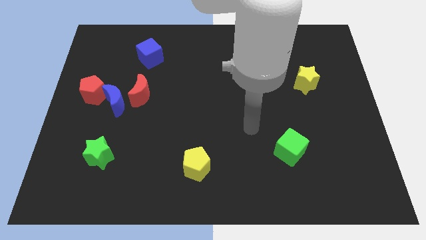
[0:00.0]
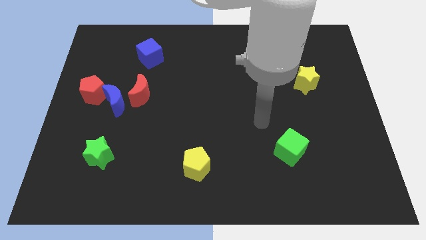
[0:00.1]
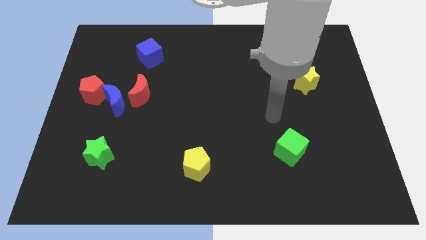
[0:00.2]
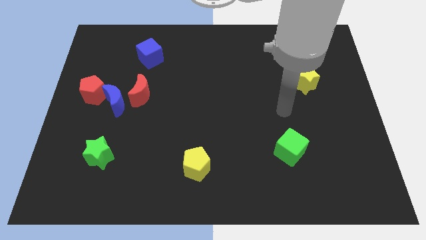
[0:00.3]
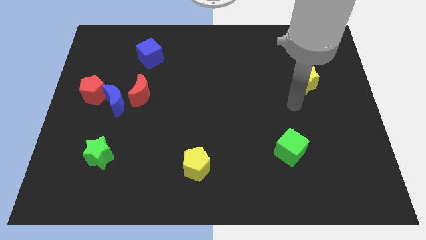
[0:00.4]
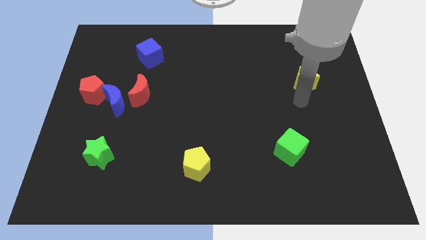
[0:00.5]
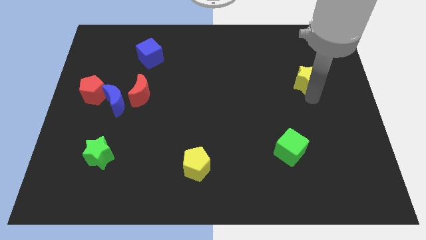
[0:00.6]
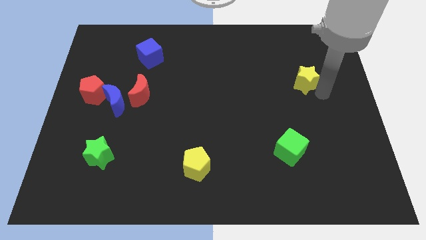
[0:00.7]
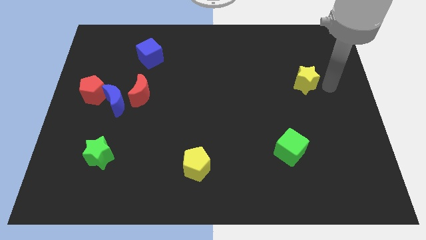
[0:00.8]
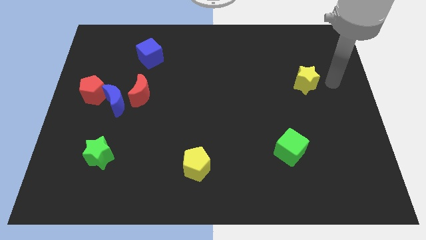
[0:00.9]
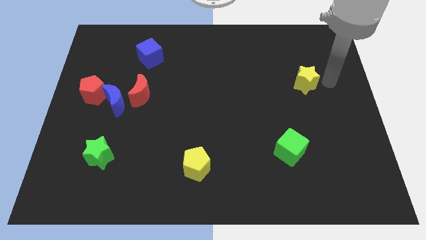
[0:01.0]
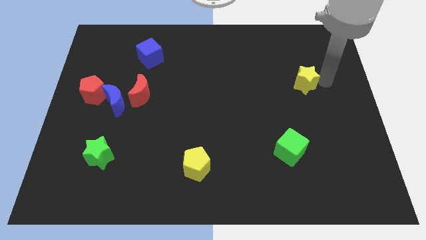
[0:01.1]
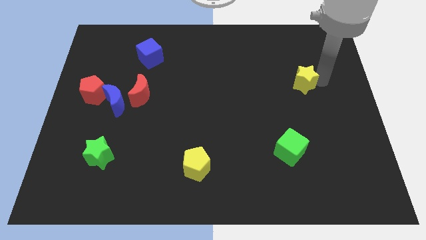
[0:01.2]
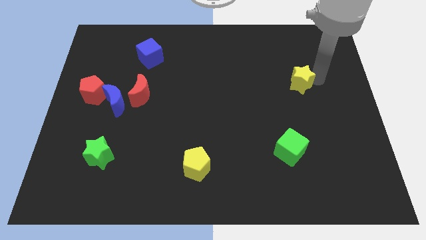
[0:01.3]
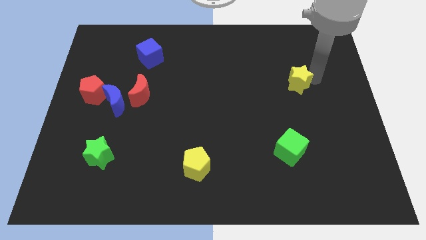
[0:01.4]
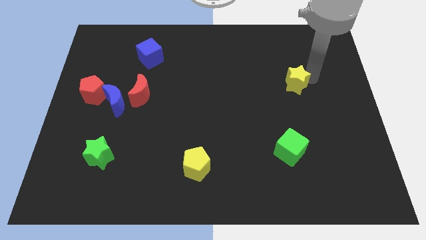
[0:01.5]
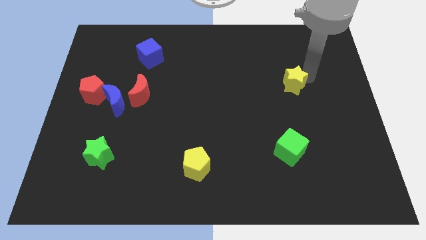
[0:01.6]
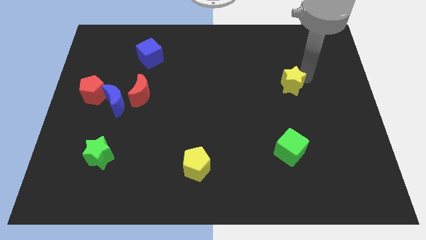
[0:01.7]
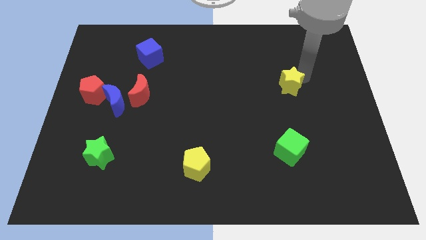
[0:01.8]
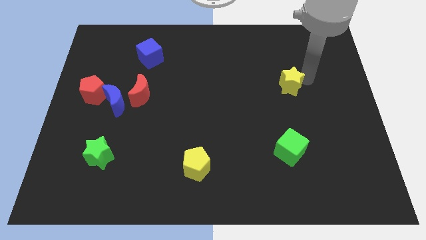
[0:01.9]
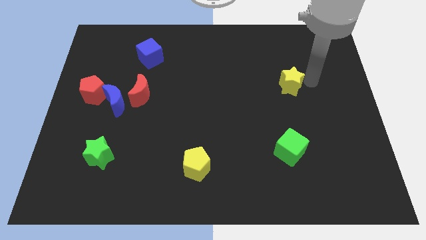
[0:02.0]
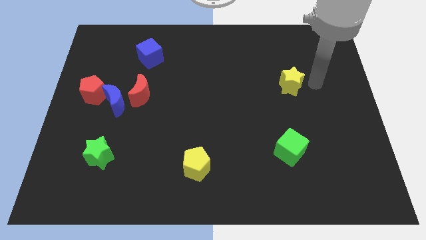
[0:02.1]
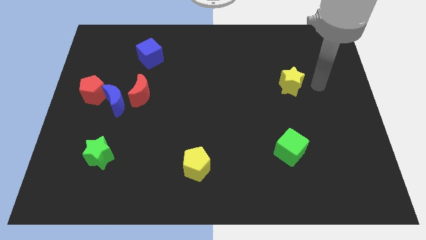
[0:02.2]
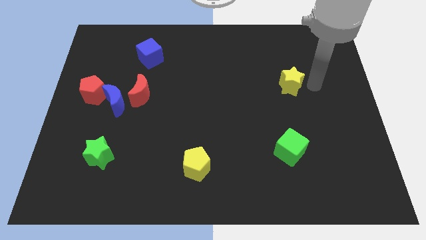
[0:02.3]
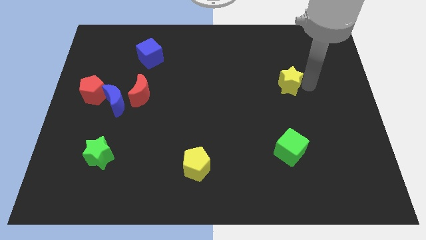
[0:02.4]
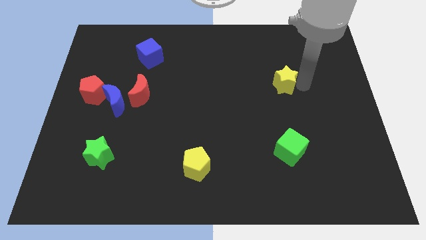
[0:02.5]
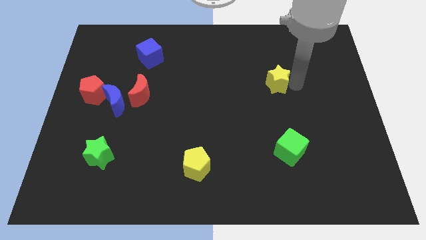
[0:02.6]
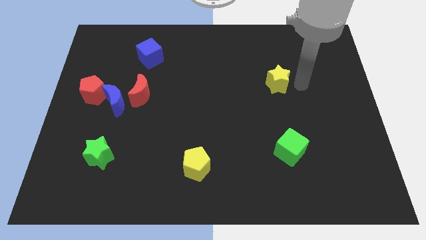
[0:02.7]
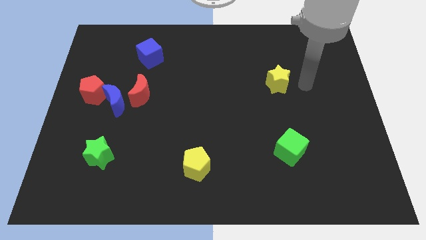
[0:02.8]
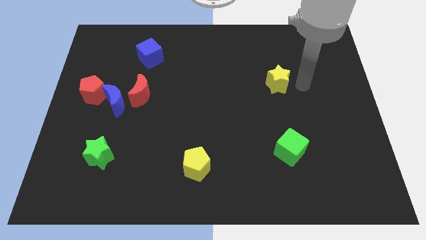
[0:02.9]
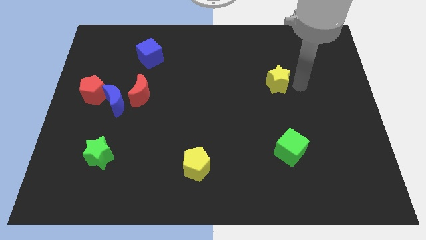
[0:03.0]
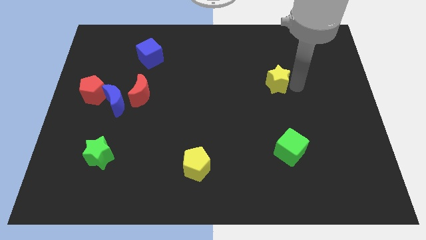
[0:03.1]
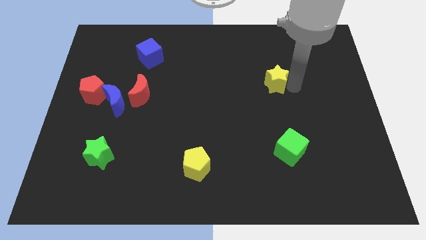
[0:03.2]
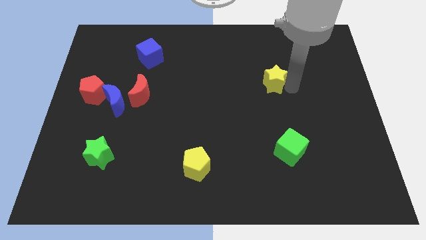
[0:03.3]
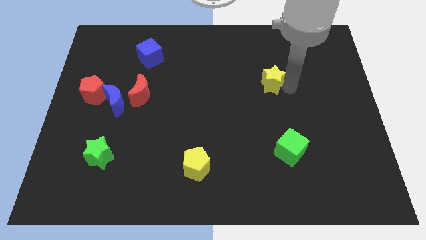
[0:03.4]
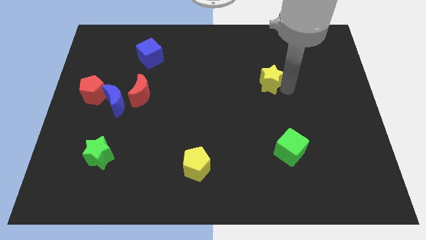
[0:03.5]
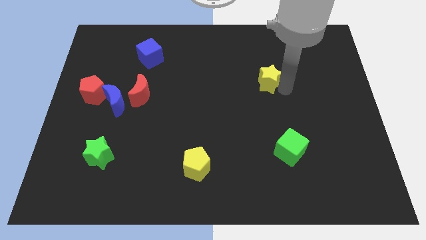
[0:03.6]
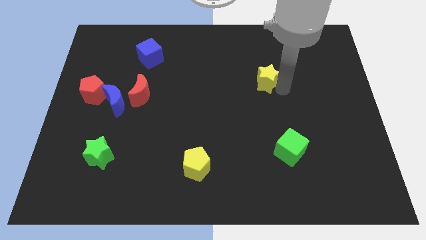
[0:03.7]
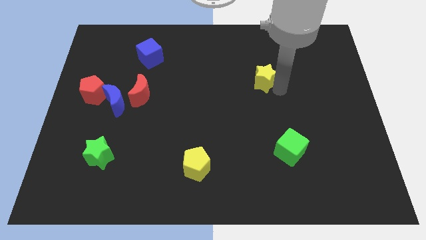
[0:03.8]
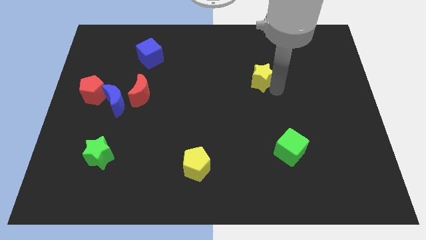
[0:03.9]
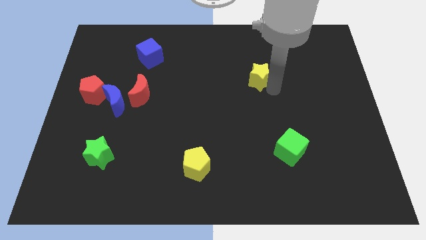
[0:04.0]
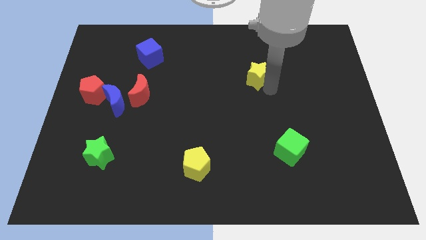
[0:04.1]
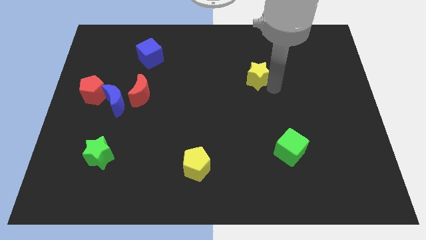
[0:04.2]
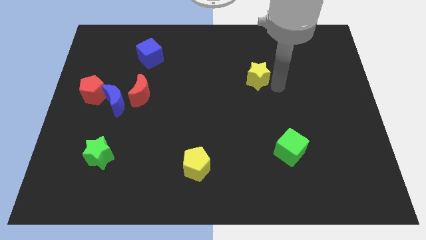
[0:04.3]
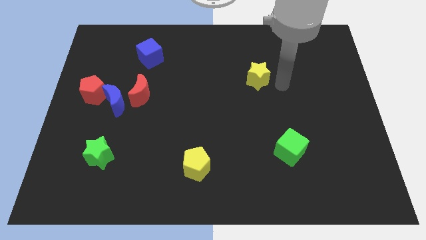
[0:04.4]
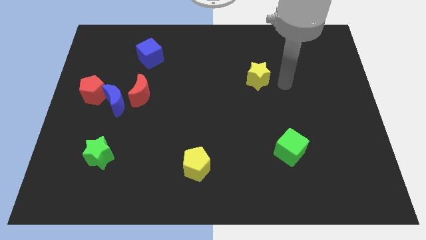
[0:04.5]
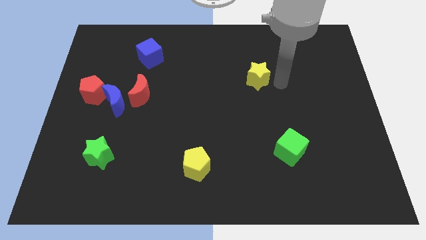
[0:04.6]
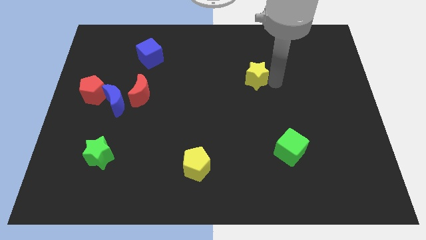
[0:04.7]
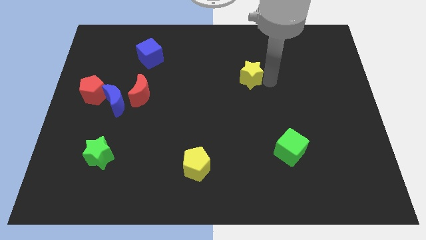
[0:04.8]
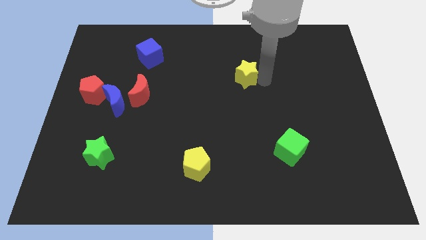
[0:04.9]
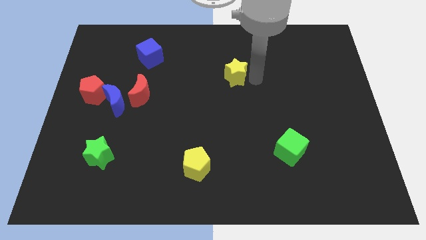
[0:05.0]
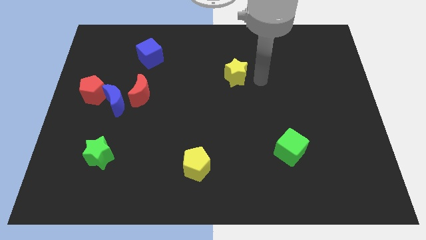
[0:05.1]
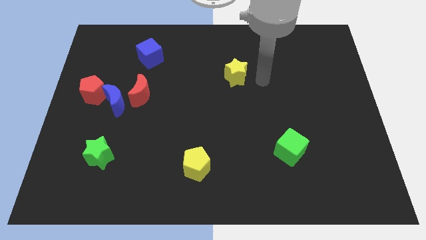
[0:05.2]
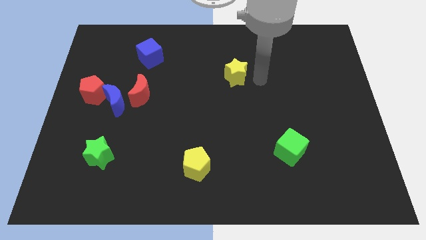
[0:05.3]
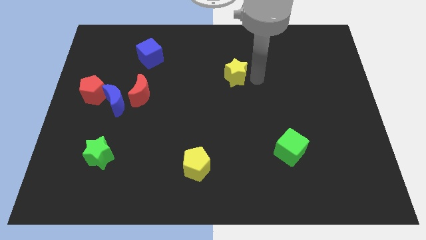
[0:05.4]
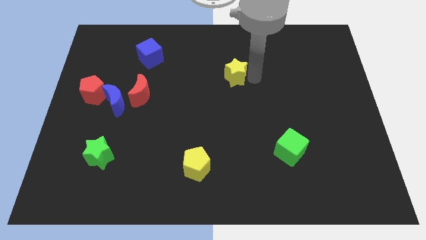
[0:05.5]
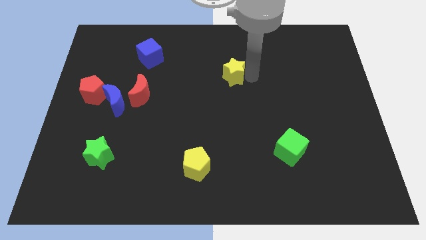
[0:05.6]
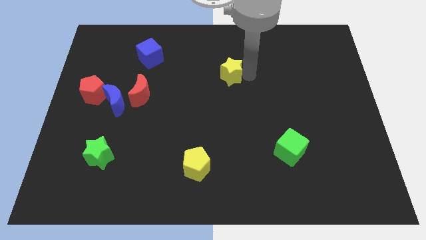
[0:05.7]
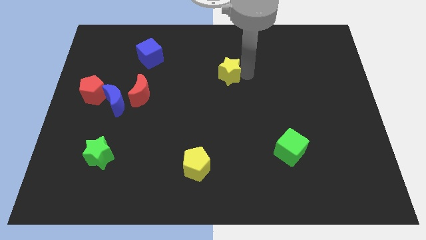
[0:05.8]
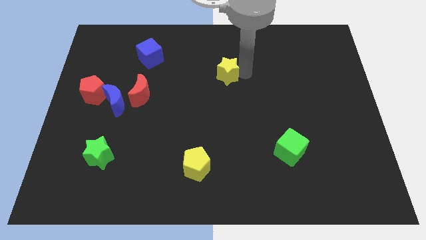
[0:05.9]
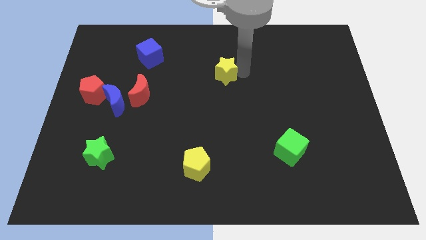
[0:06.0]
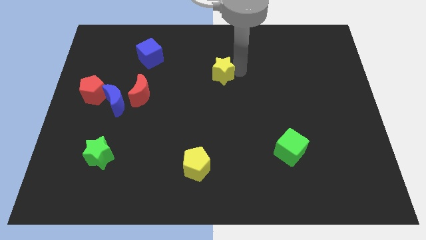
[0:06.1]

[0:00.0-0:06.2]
push the yellow star to the left

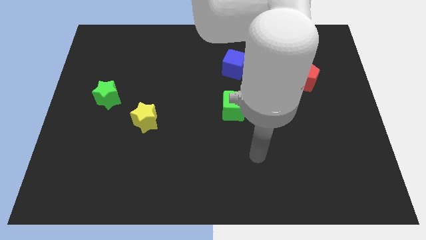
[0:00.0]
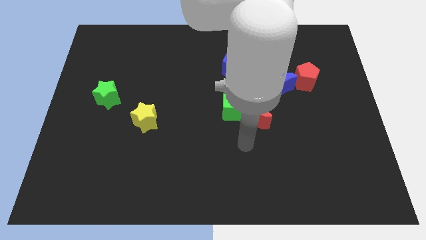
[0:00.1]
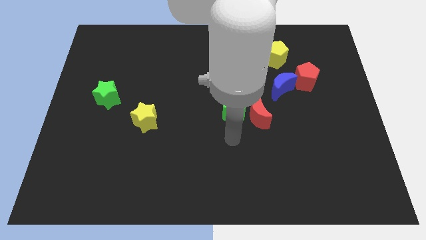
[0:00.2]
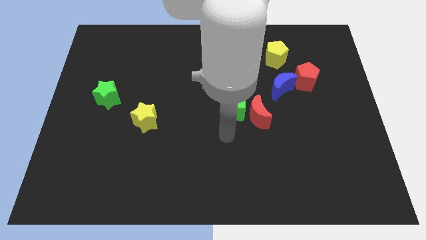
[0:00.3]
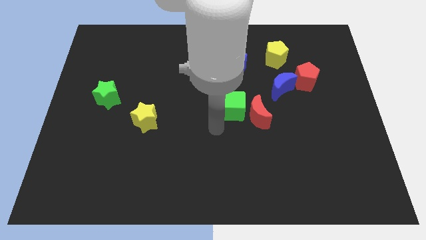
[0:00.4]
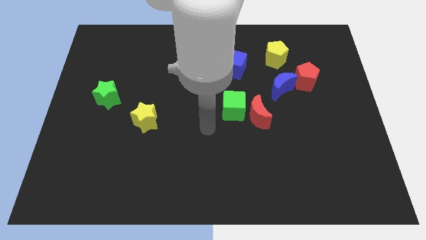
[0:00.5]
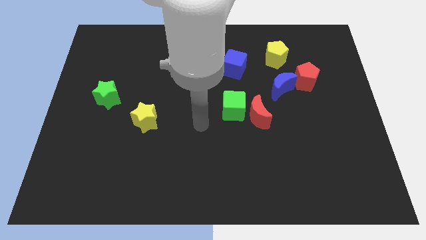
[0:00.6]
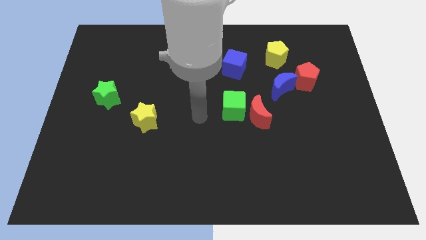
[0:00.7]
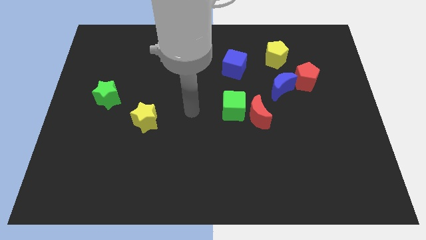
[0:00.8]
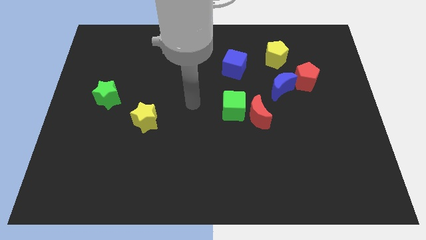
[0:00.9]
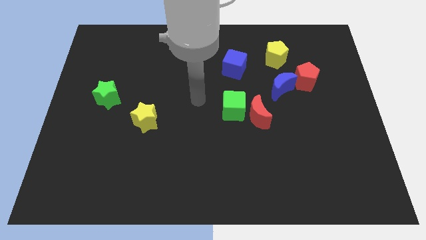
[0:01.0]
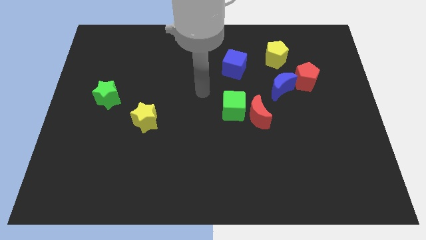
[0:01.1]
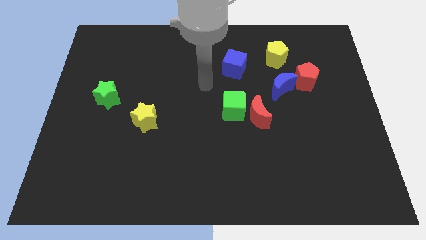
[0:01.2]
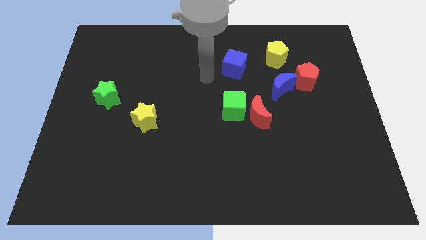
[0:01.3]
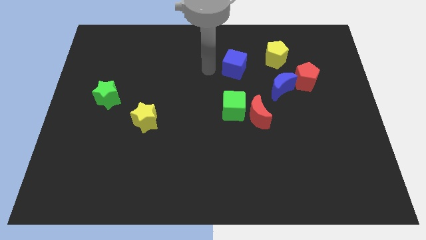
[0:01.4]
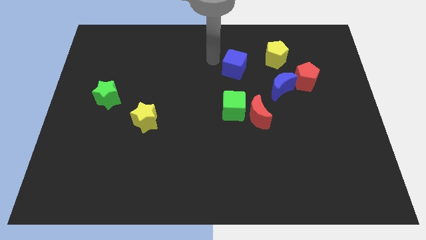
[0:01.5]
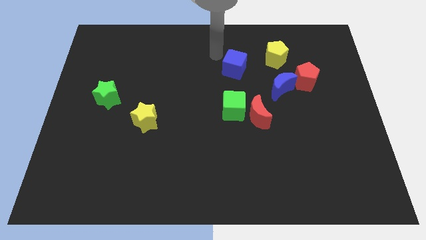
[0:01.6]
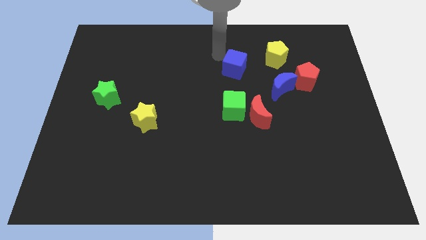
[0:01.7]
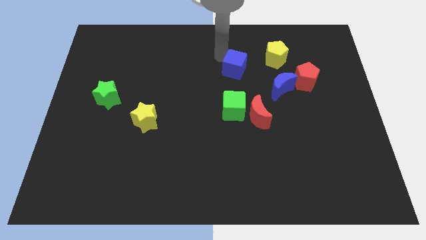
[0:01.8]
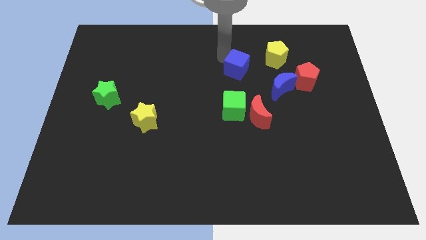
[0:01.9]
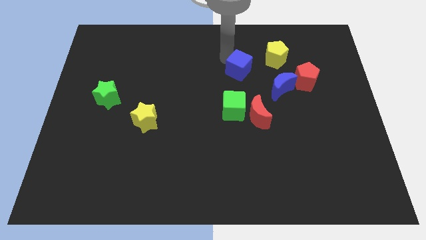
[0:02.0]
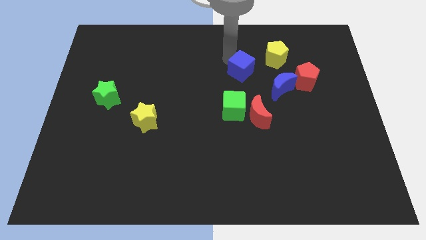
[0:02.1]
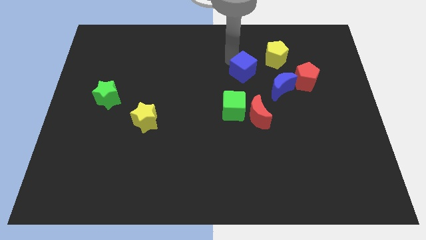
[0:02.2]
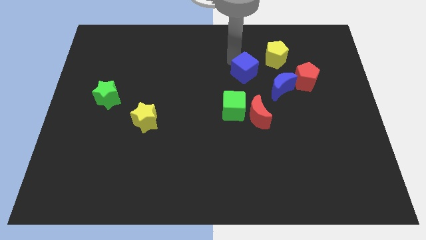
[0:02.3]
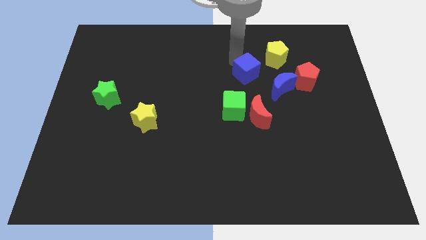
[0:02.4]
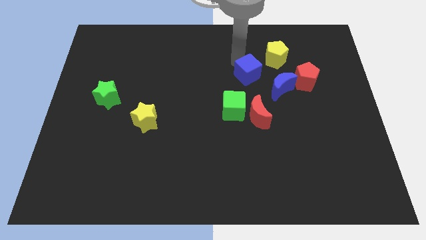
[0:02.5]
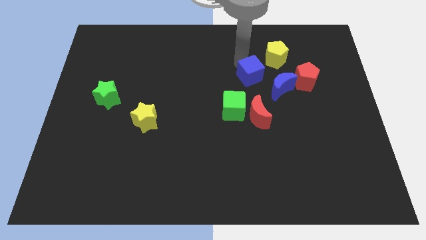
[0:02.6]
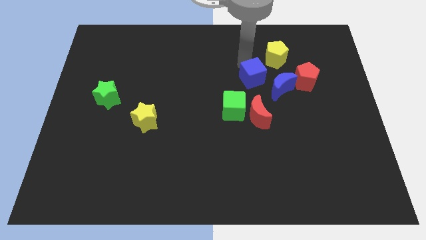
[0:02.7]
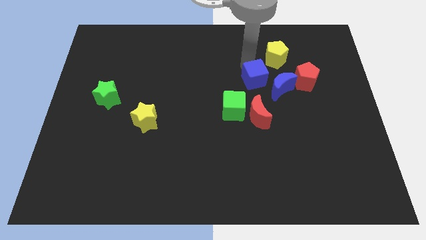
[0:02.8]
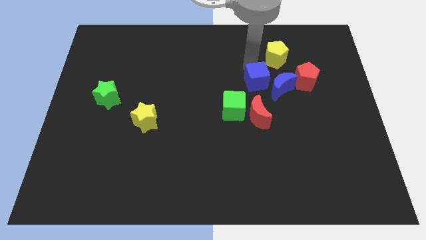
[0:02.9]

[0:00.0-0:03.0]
slide the blue cube diagonally down and right slightly
